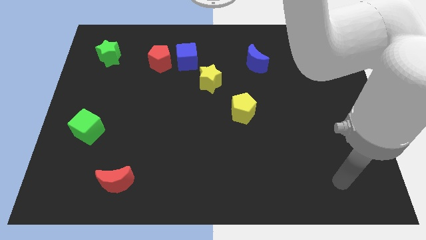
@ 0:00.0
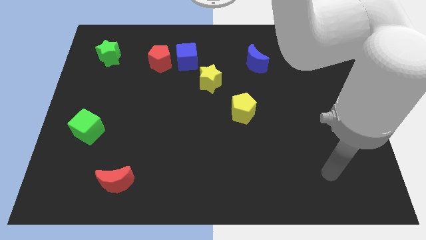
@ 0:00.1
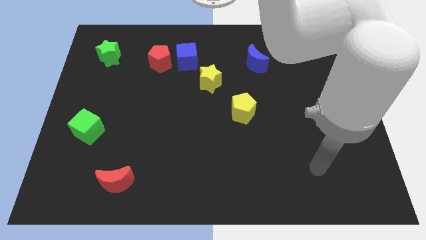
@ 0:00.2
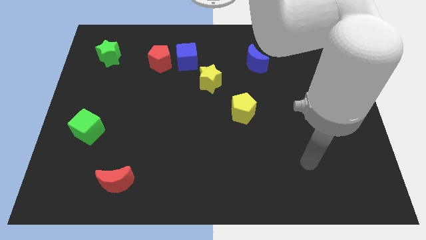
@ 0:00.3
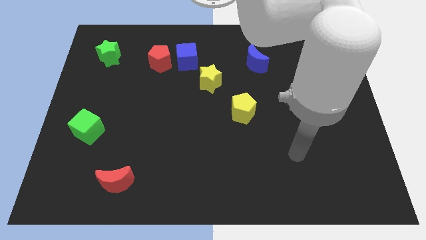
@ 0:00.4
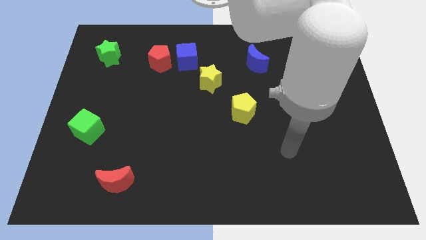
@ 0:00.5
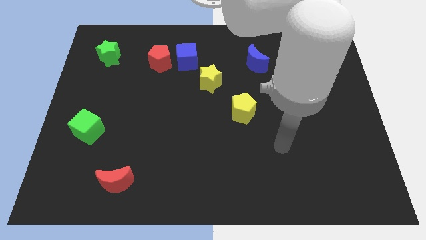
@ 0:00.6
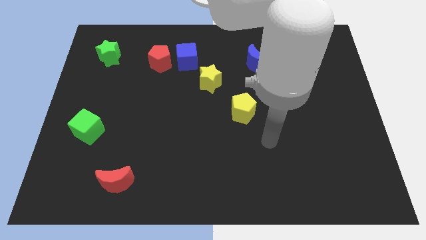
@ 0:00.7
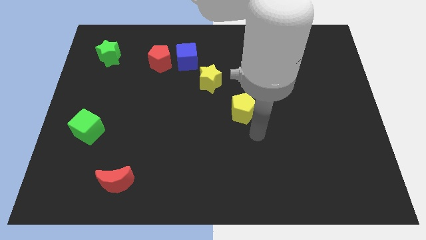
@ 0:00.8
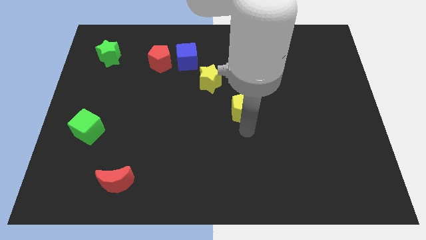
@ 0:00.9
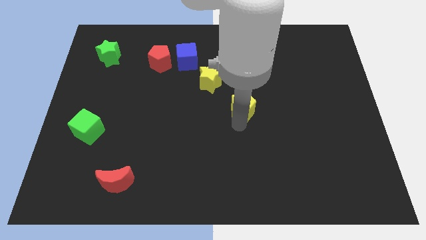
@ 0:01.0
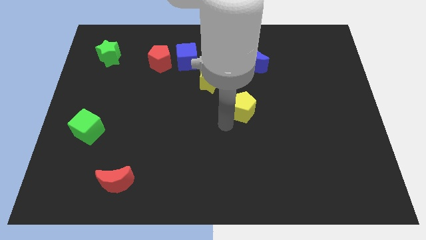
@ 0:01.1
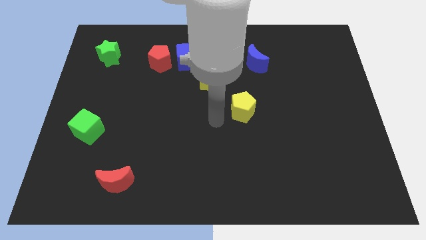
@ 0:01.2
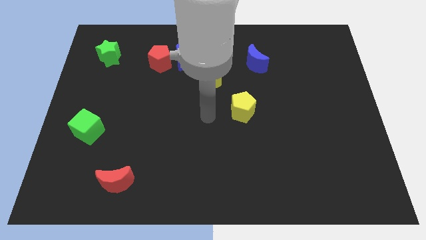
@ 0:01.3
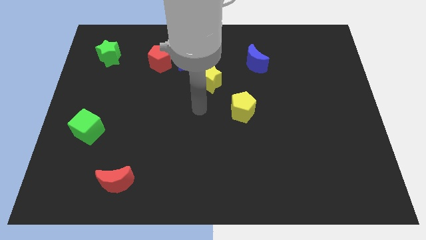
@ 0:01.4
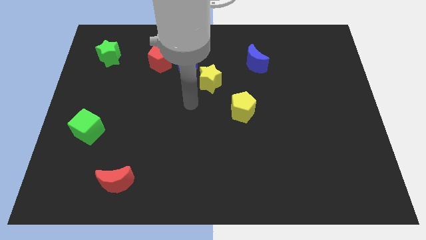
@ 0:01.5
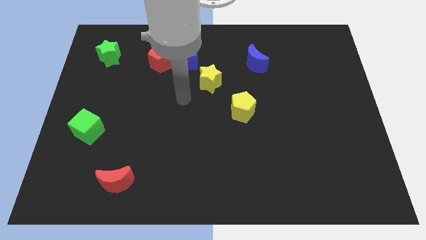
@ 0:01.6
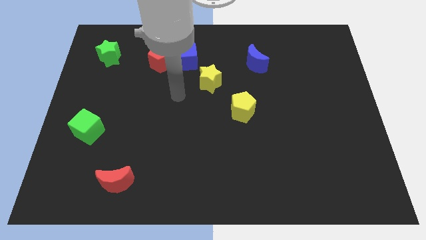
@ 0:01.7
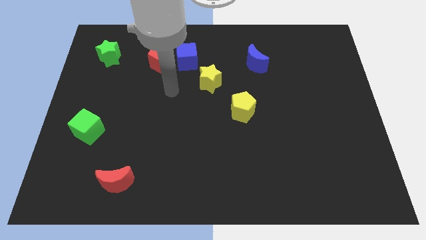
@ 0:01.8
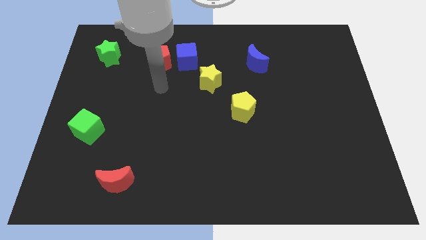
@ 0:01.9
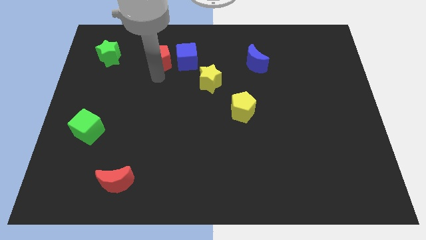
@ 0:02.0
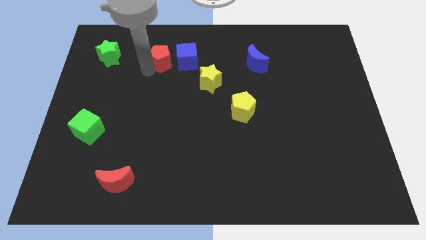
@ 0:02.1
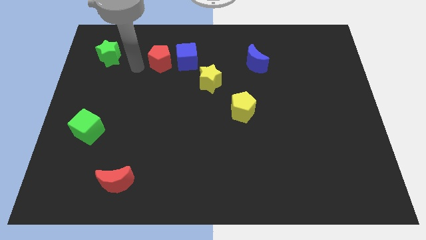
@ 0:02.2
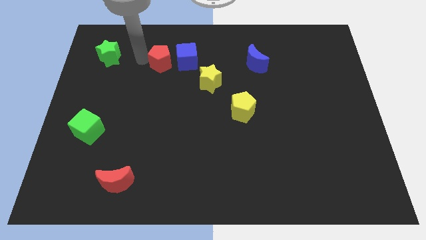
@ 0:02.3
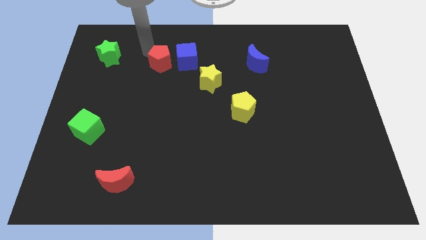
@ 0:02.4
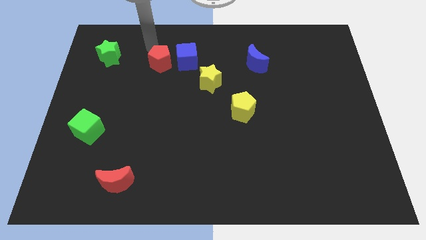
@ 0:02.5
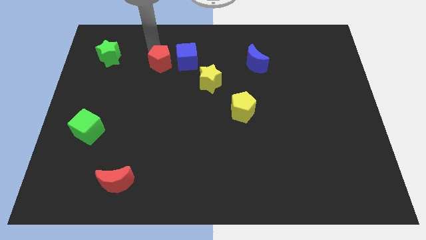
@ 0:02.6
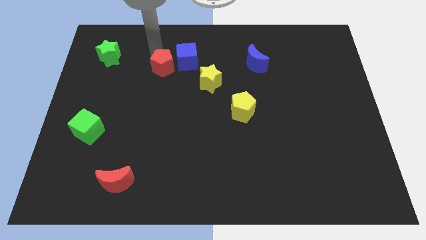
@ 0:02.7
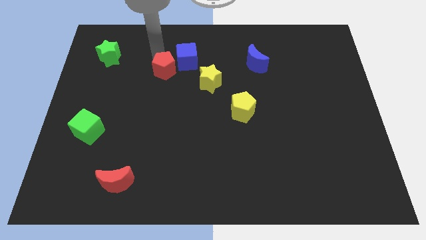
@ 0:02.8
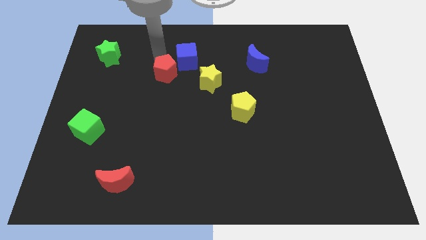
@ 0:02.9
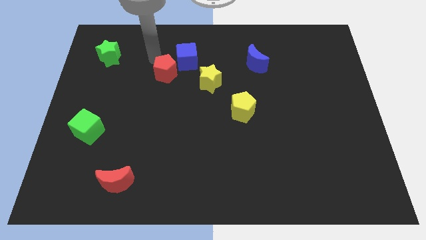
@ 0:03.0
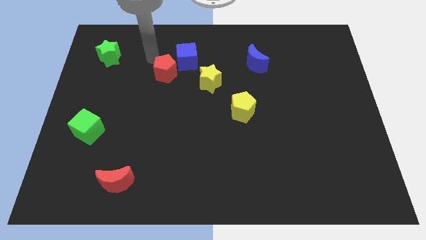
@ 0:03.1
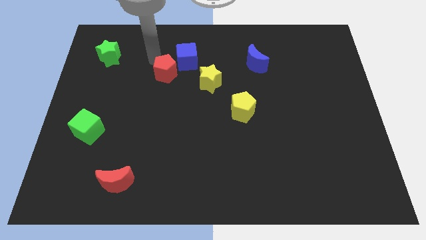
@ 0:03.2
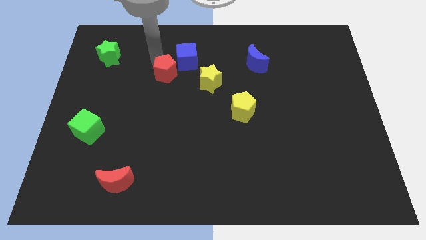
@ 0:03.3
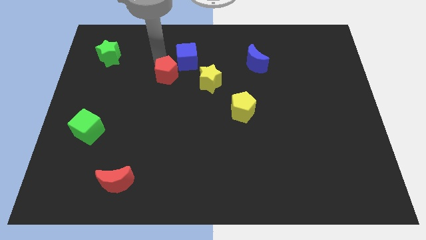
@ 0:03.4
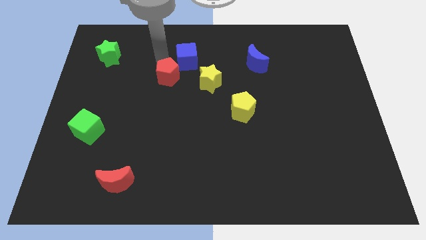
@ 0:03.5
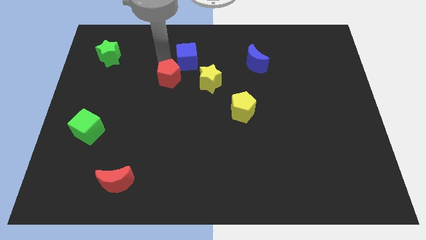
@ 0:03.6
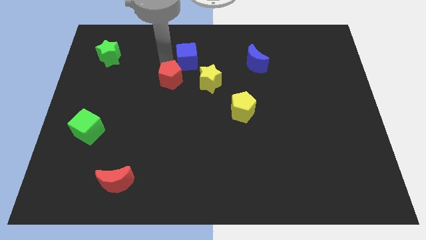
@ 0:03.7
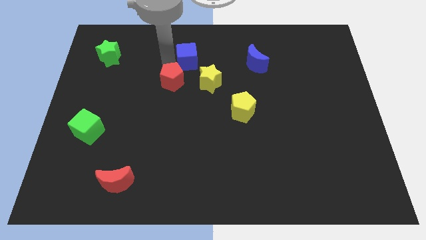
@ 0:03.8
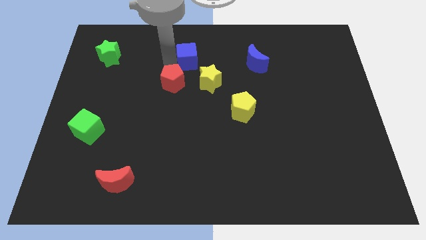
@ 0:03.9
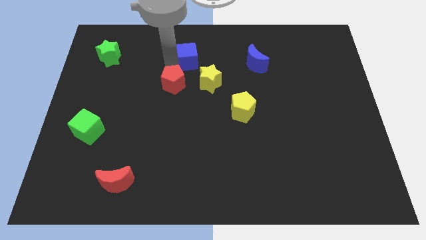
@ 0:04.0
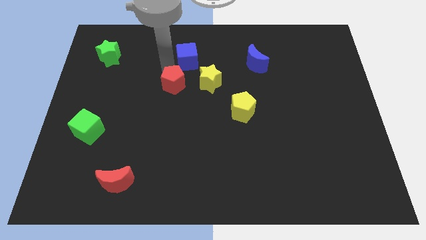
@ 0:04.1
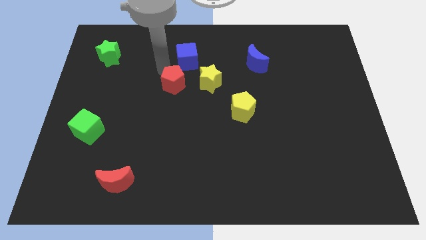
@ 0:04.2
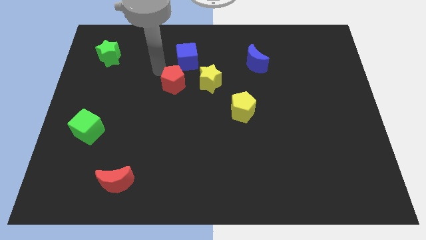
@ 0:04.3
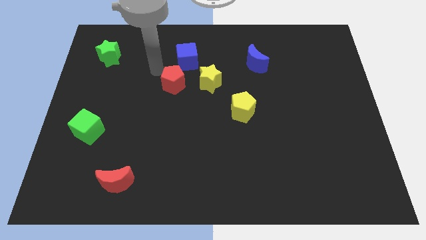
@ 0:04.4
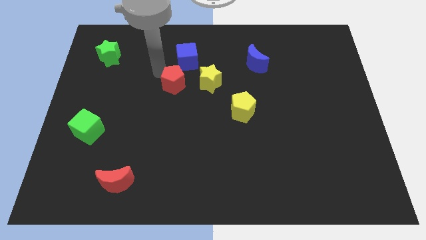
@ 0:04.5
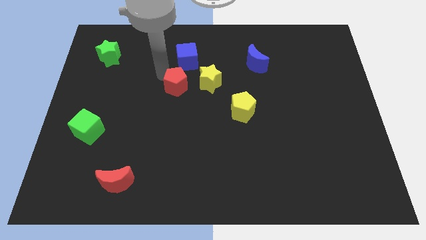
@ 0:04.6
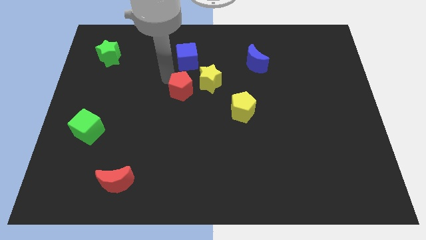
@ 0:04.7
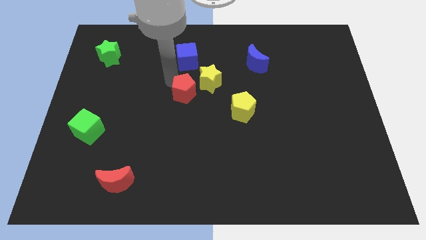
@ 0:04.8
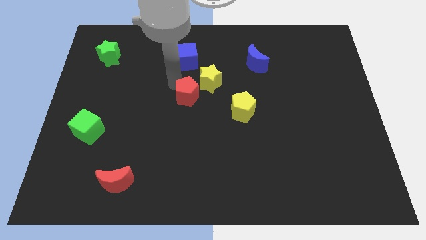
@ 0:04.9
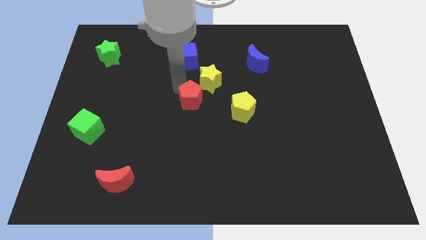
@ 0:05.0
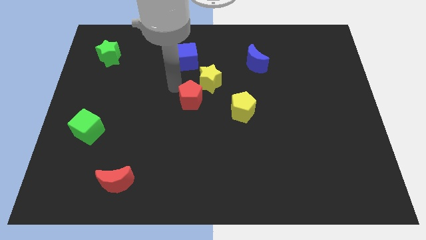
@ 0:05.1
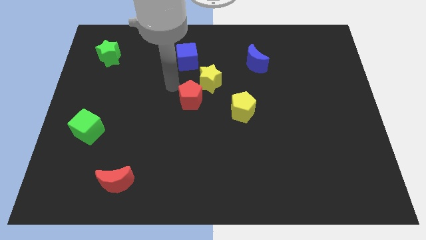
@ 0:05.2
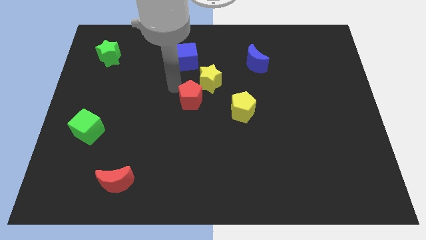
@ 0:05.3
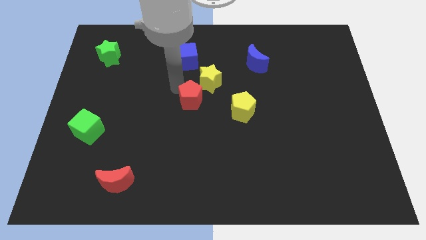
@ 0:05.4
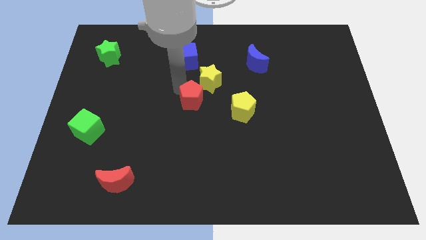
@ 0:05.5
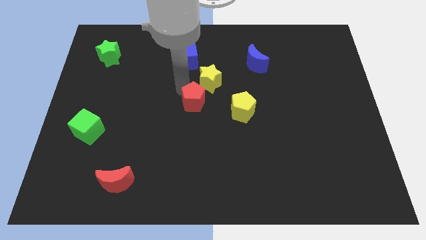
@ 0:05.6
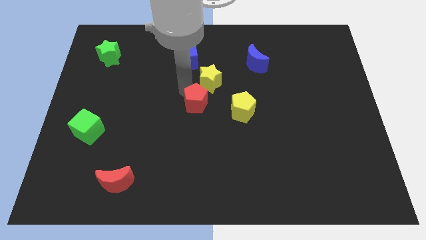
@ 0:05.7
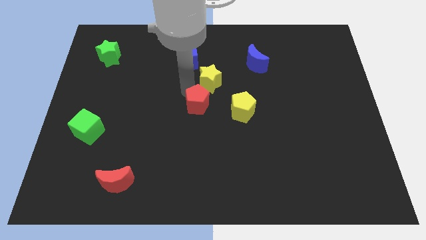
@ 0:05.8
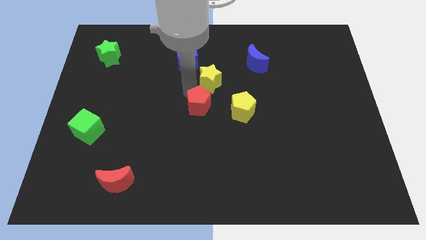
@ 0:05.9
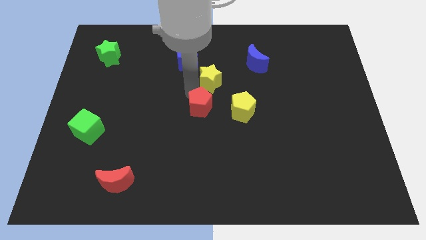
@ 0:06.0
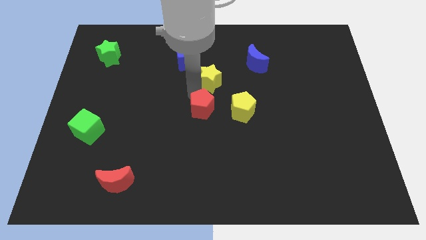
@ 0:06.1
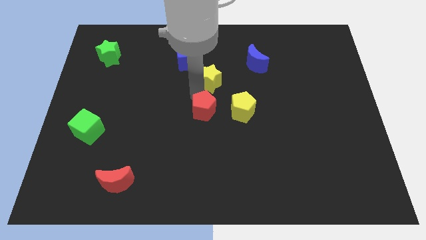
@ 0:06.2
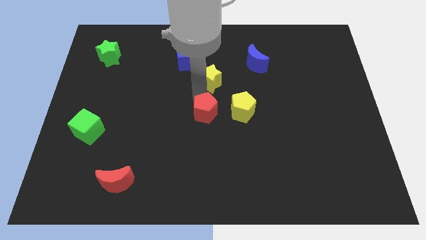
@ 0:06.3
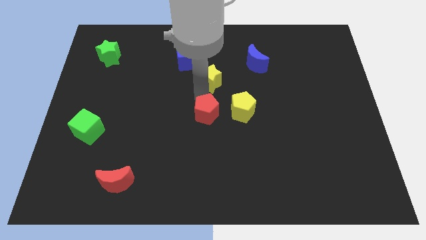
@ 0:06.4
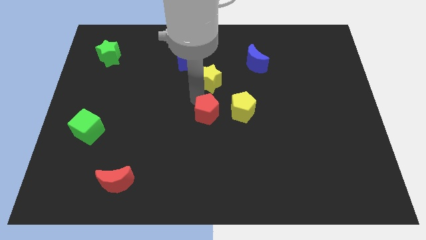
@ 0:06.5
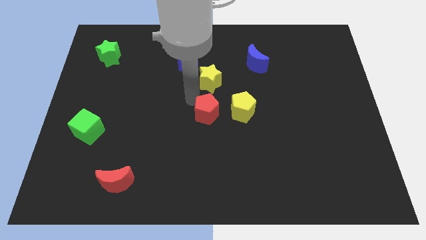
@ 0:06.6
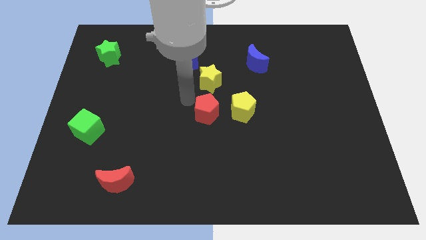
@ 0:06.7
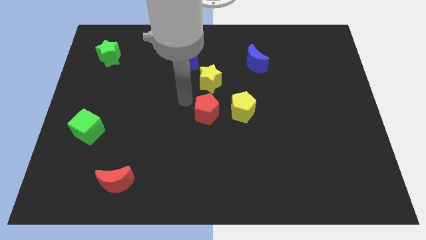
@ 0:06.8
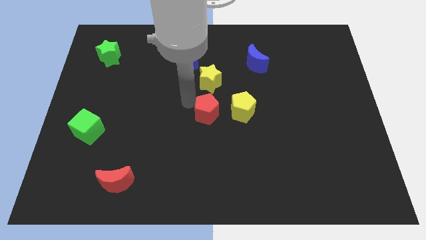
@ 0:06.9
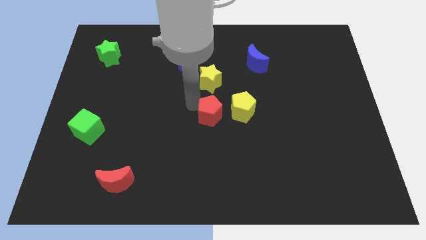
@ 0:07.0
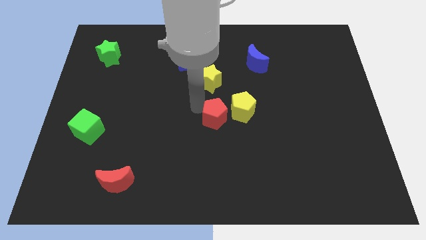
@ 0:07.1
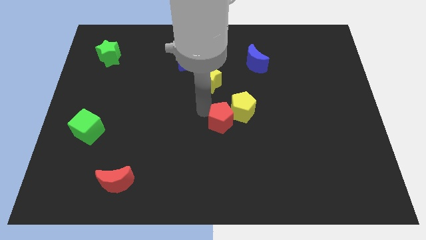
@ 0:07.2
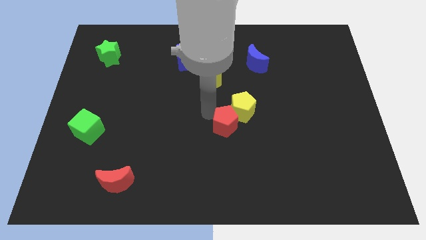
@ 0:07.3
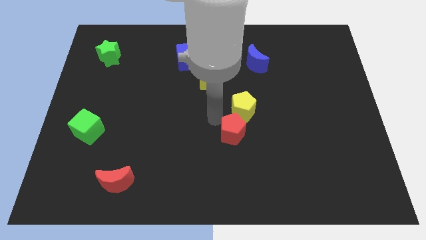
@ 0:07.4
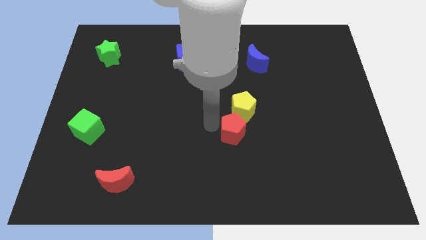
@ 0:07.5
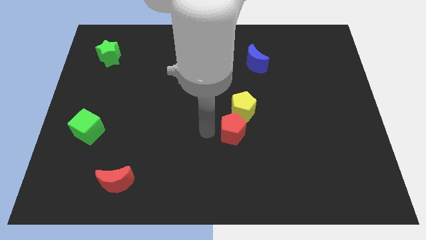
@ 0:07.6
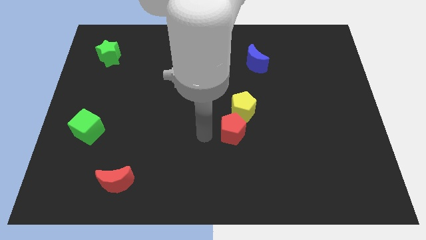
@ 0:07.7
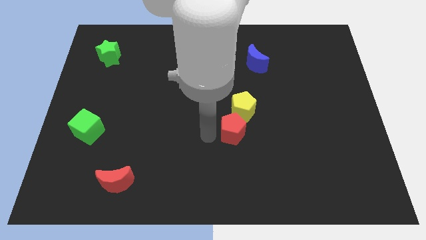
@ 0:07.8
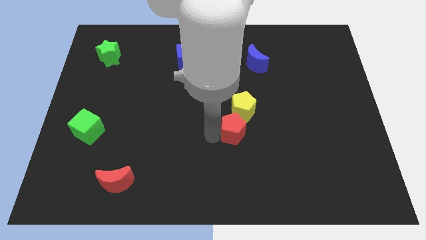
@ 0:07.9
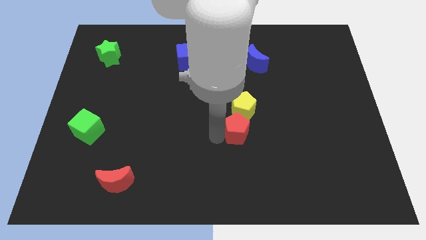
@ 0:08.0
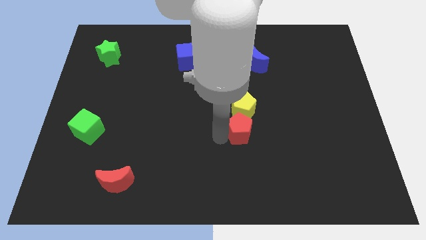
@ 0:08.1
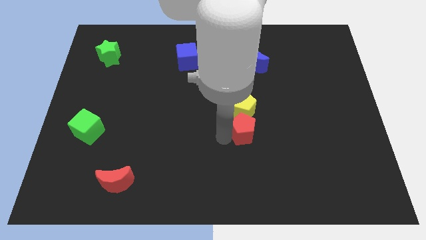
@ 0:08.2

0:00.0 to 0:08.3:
slide the red pentagon diagonally down and to the right of the yellow pentagon
